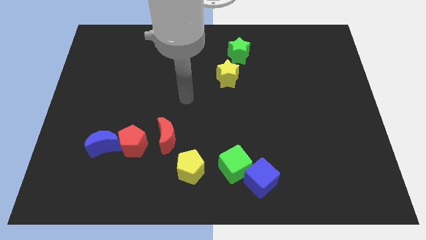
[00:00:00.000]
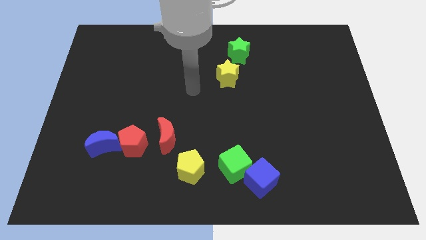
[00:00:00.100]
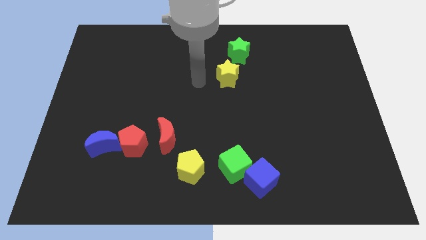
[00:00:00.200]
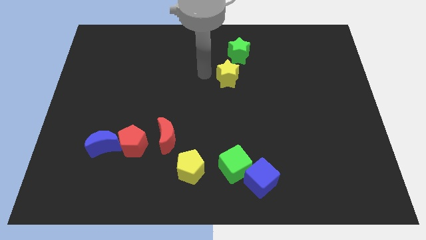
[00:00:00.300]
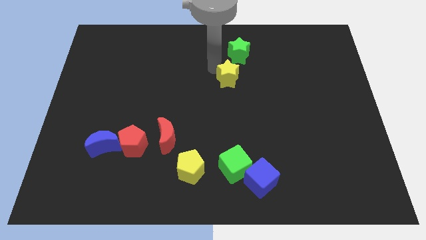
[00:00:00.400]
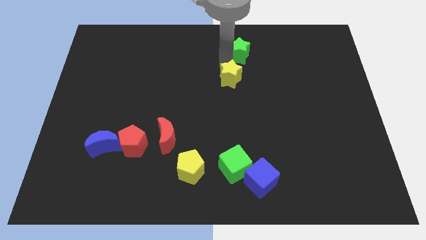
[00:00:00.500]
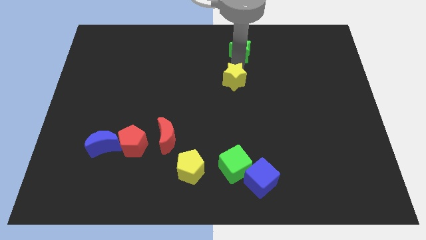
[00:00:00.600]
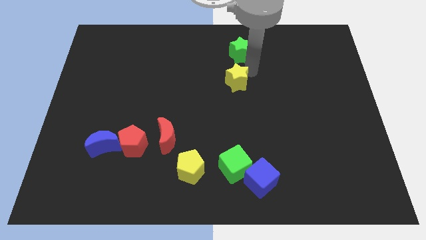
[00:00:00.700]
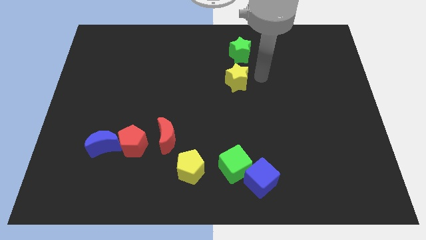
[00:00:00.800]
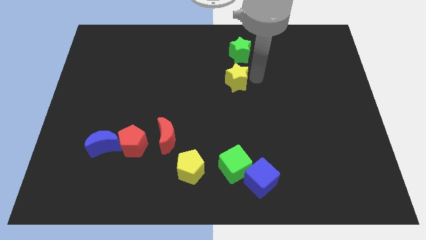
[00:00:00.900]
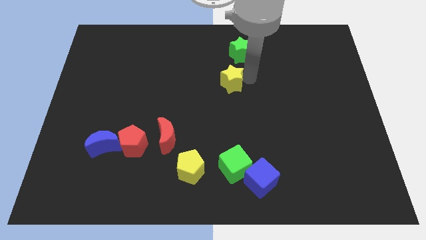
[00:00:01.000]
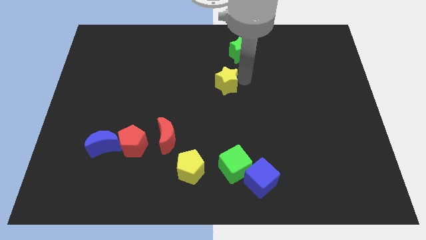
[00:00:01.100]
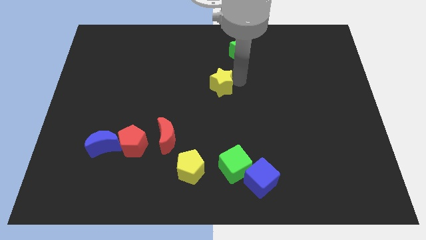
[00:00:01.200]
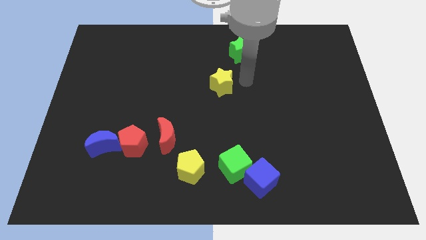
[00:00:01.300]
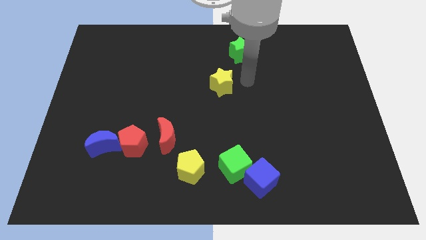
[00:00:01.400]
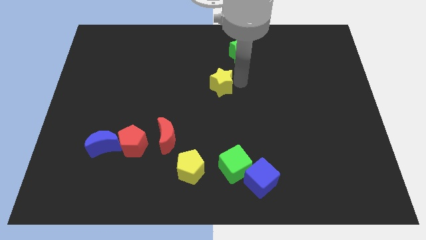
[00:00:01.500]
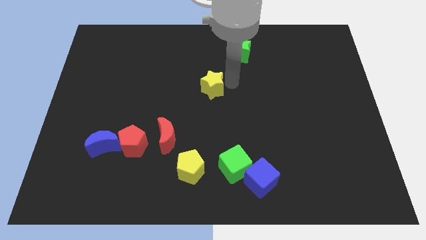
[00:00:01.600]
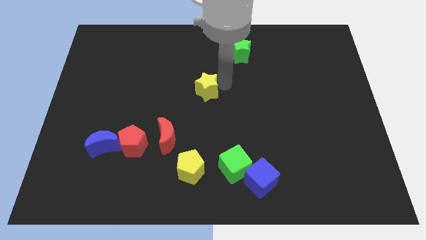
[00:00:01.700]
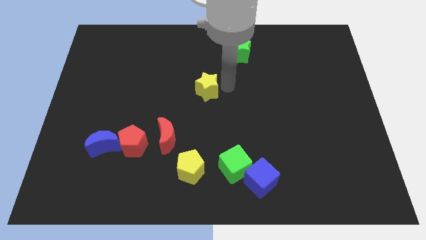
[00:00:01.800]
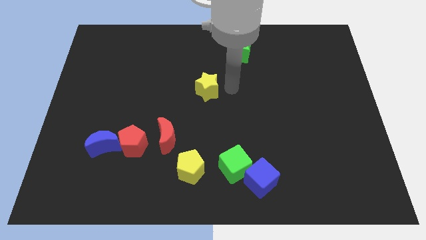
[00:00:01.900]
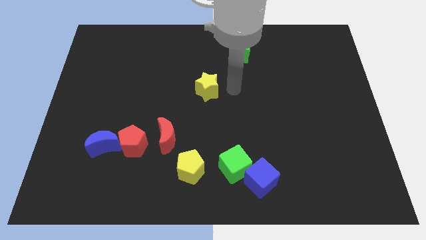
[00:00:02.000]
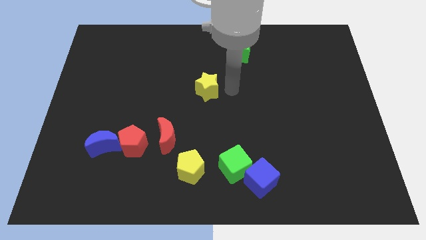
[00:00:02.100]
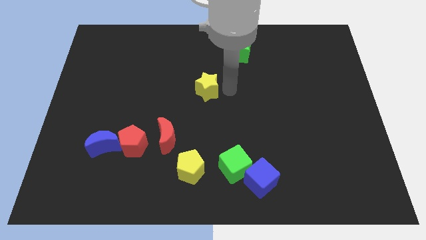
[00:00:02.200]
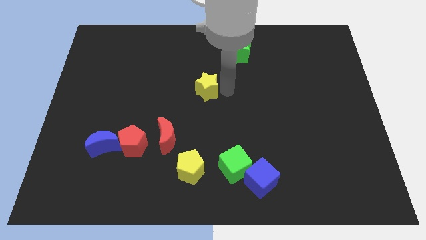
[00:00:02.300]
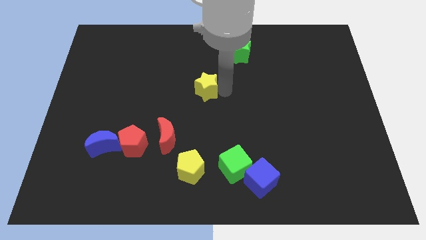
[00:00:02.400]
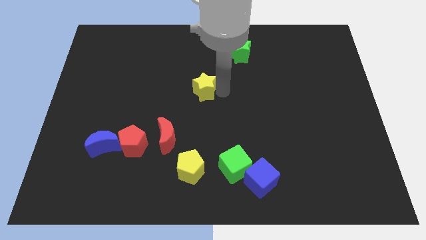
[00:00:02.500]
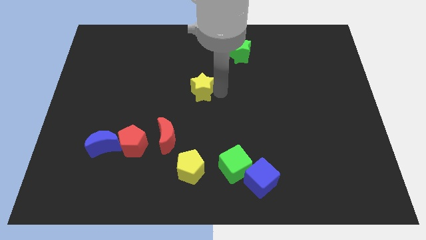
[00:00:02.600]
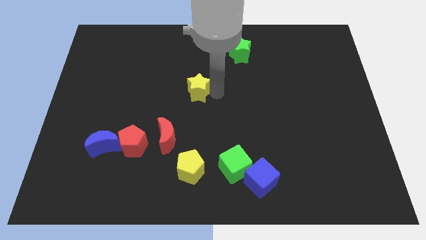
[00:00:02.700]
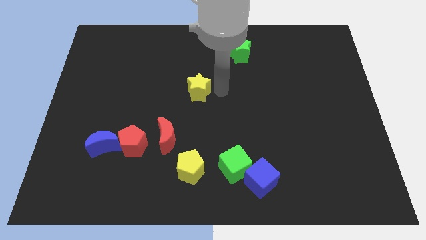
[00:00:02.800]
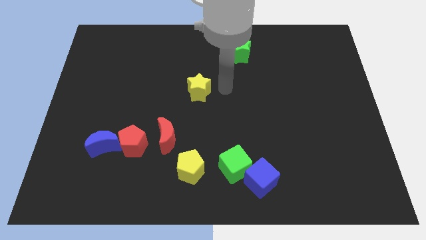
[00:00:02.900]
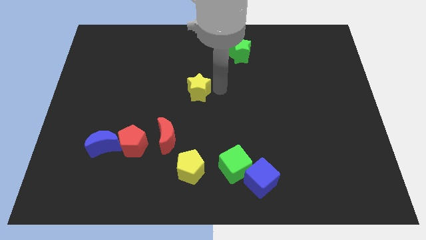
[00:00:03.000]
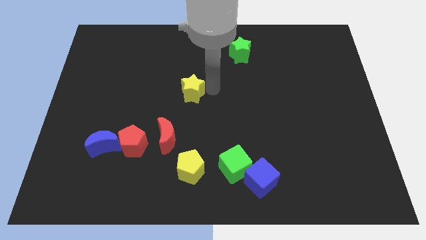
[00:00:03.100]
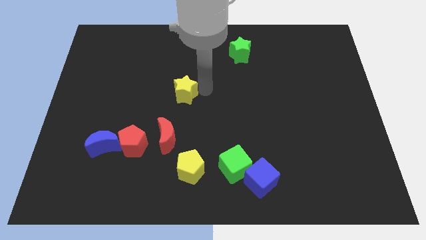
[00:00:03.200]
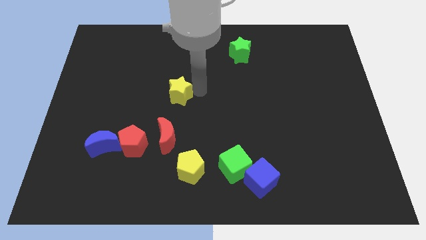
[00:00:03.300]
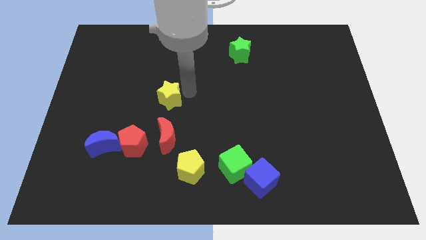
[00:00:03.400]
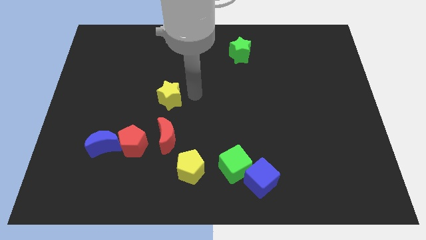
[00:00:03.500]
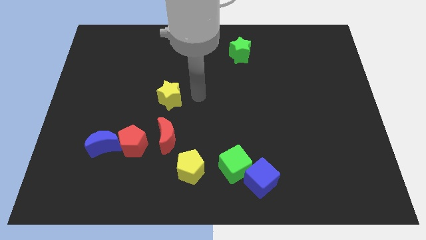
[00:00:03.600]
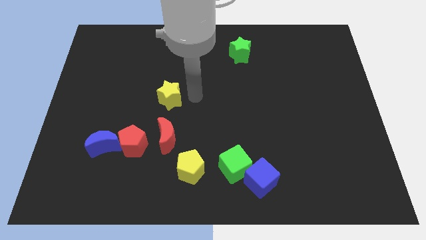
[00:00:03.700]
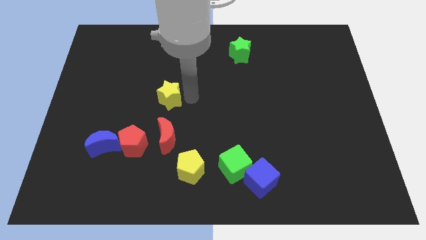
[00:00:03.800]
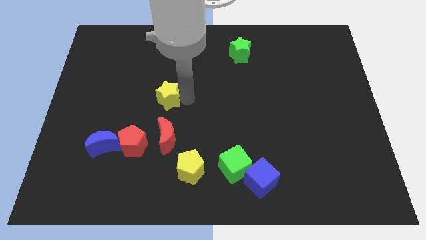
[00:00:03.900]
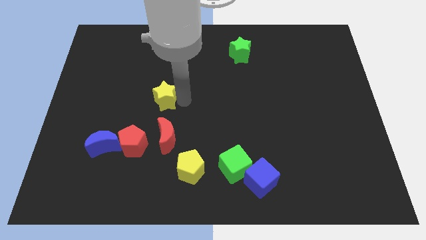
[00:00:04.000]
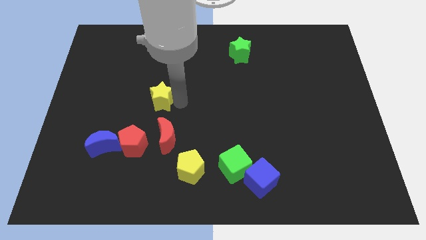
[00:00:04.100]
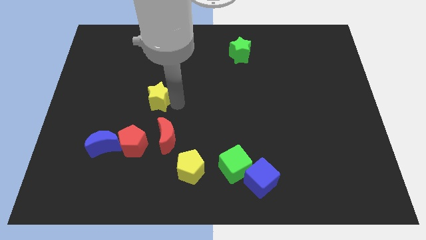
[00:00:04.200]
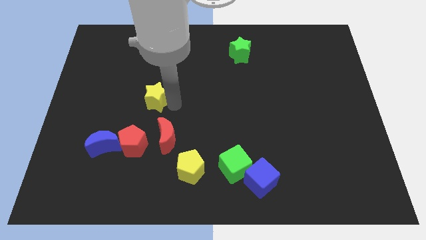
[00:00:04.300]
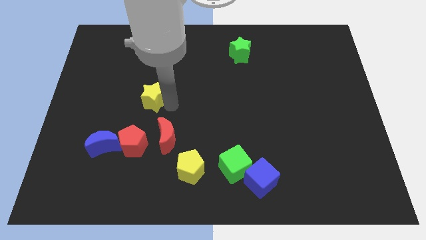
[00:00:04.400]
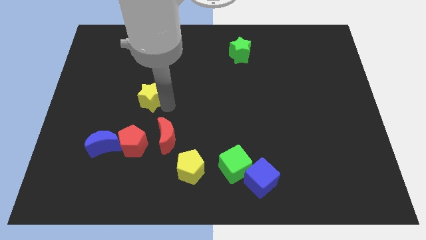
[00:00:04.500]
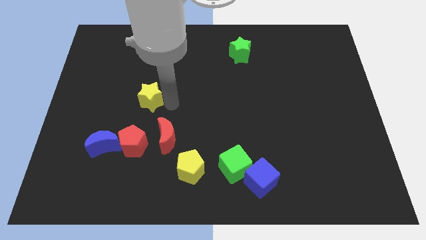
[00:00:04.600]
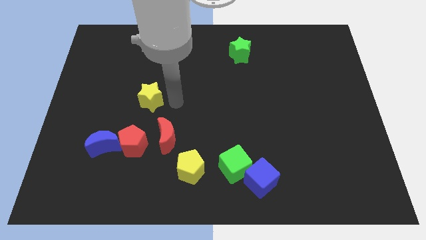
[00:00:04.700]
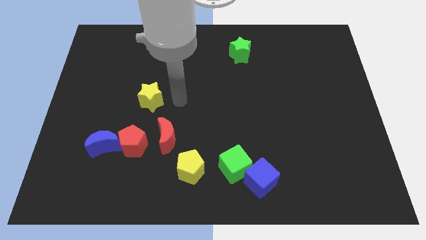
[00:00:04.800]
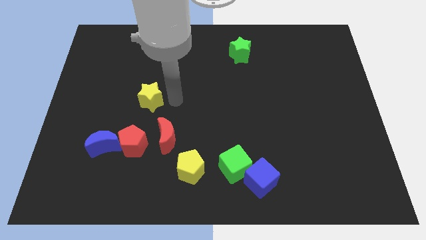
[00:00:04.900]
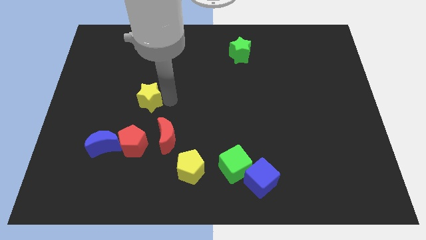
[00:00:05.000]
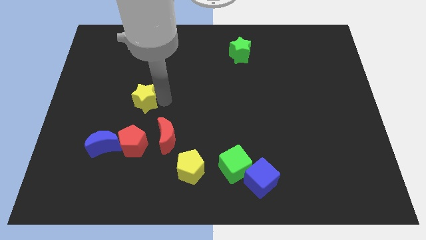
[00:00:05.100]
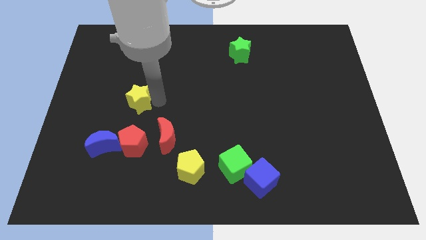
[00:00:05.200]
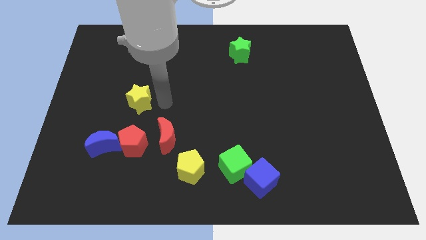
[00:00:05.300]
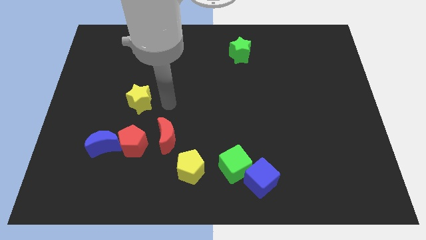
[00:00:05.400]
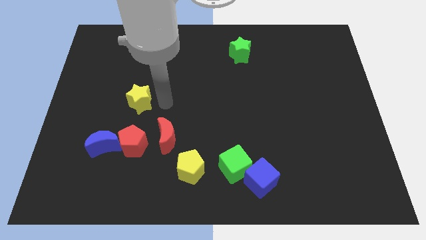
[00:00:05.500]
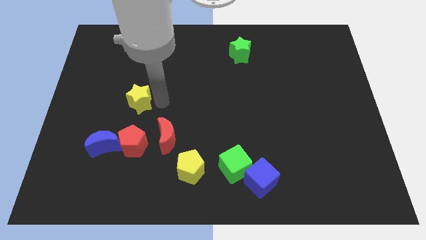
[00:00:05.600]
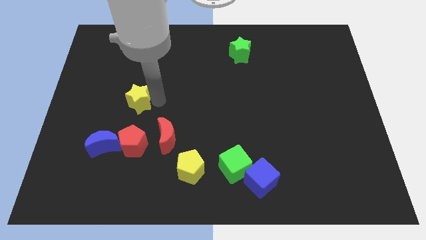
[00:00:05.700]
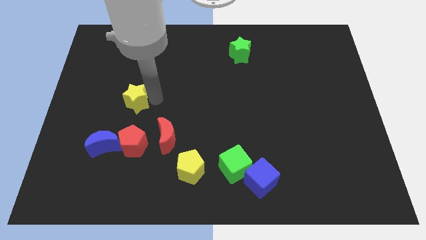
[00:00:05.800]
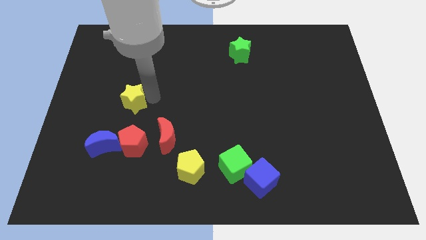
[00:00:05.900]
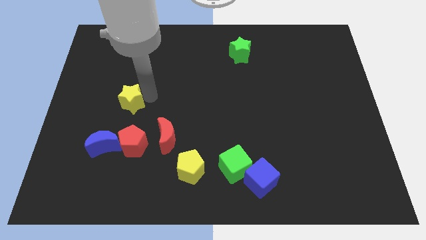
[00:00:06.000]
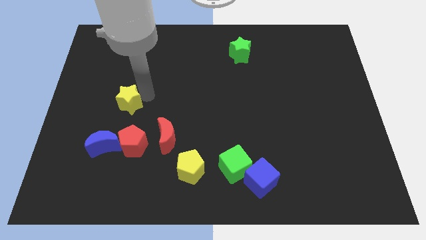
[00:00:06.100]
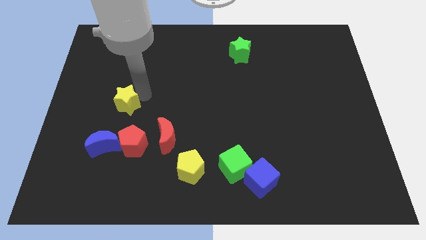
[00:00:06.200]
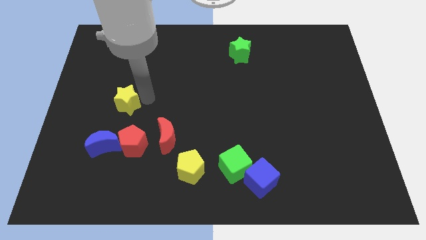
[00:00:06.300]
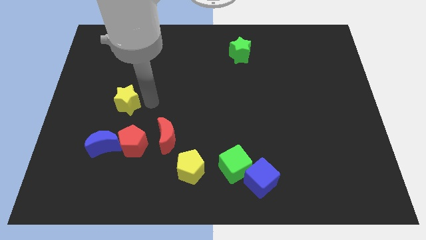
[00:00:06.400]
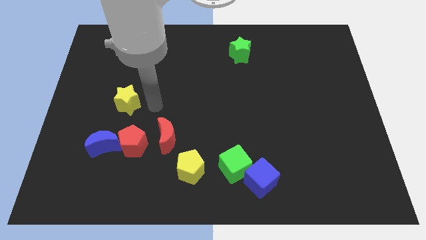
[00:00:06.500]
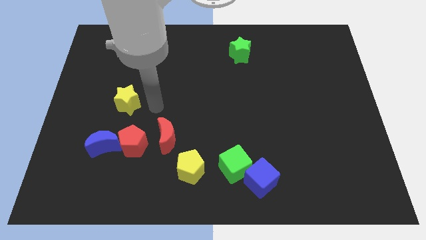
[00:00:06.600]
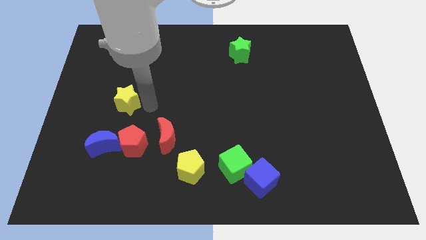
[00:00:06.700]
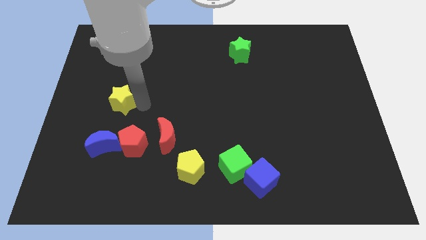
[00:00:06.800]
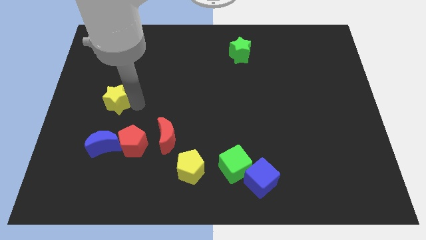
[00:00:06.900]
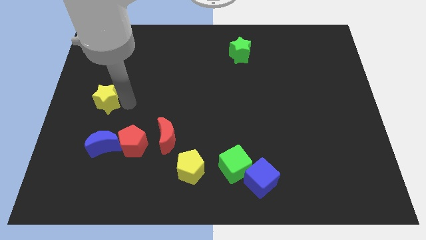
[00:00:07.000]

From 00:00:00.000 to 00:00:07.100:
slide the yellow star to the left side

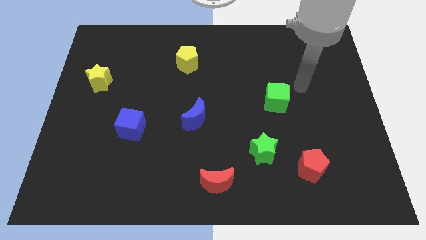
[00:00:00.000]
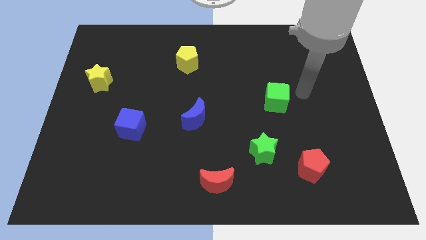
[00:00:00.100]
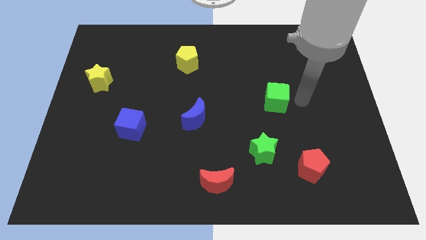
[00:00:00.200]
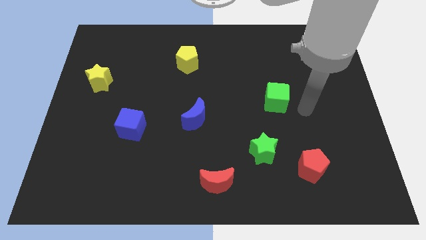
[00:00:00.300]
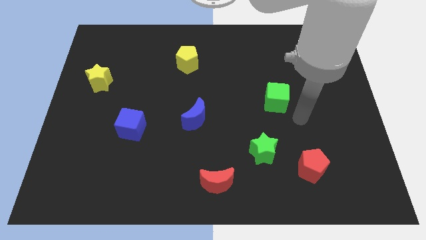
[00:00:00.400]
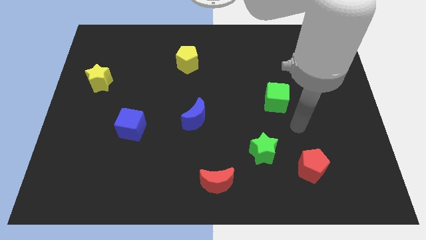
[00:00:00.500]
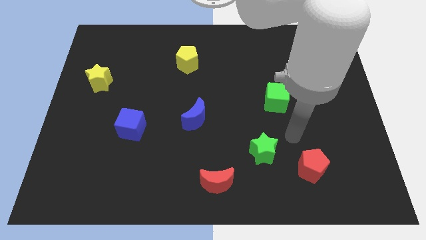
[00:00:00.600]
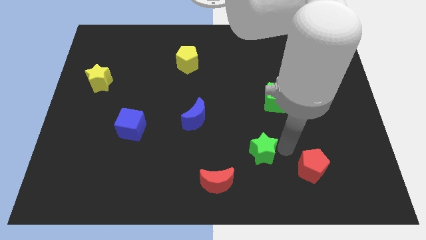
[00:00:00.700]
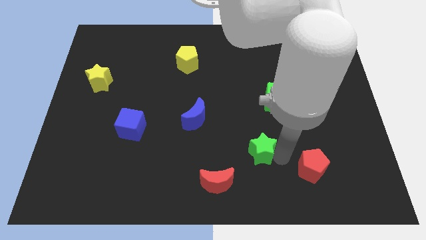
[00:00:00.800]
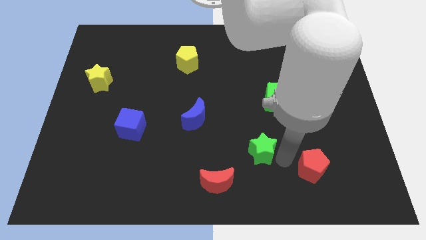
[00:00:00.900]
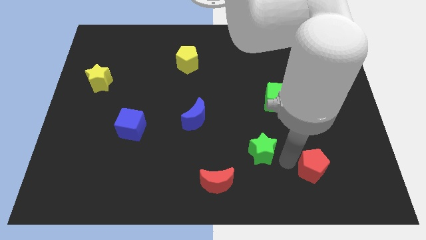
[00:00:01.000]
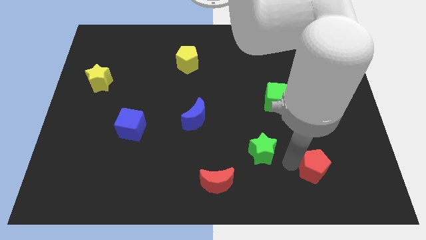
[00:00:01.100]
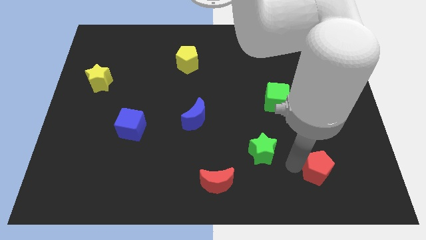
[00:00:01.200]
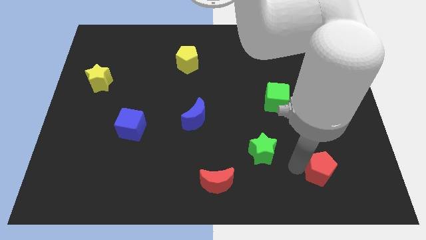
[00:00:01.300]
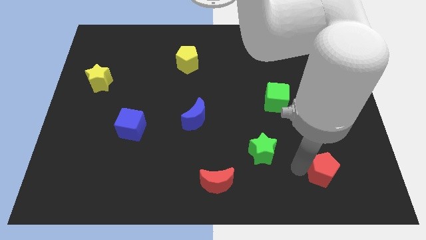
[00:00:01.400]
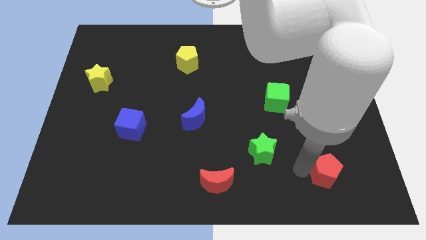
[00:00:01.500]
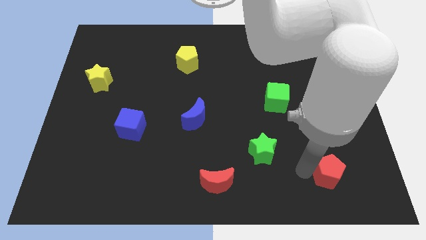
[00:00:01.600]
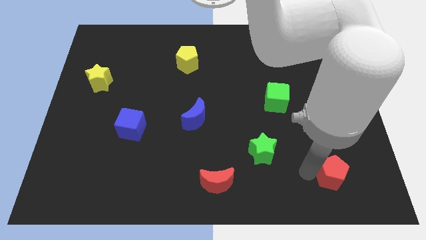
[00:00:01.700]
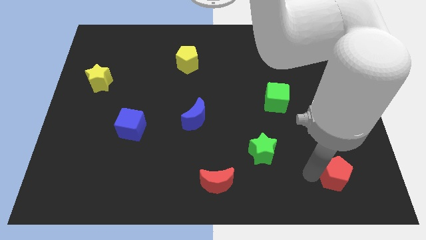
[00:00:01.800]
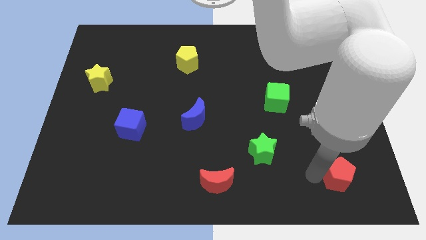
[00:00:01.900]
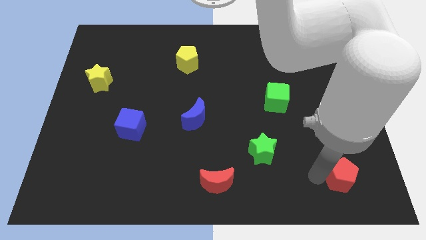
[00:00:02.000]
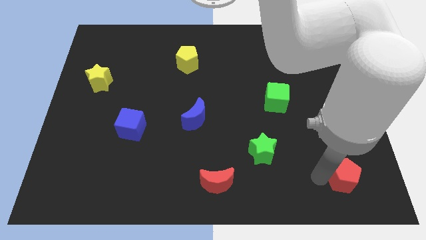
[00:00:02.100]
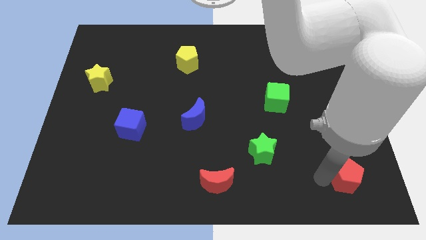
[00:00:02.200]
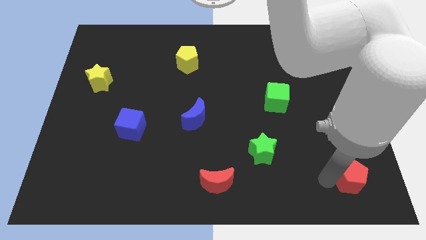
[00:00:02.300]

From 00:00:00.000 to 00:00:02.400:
put the red pentagon to the bottom right corner
